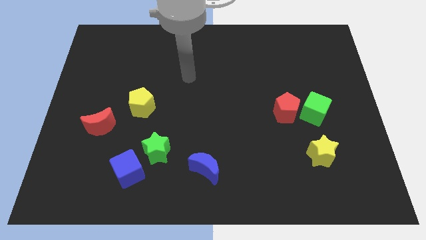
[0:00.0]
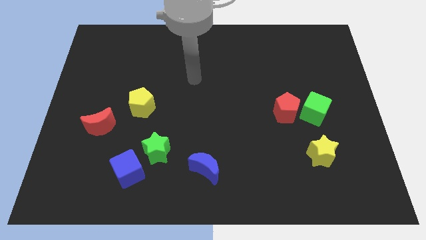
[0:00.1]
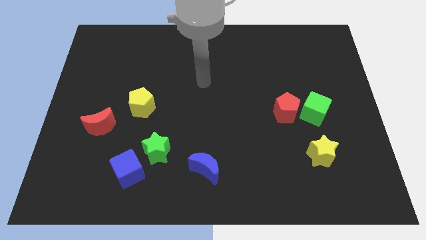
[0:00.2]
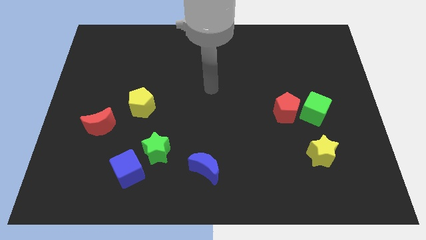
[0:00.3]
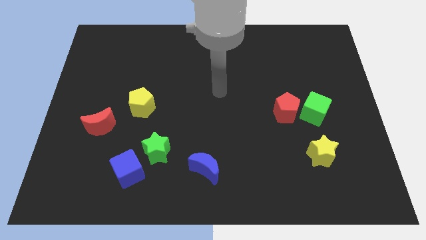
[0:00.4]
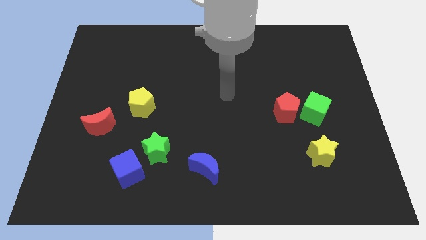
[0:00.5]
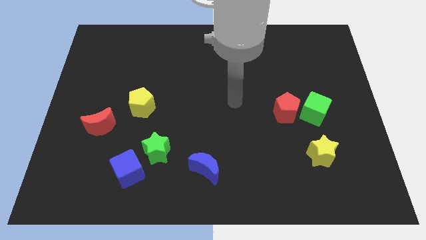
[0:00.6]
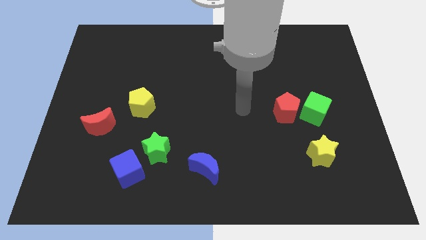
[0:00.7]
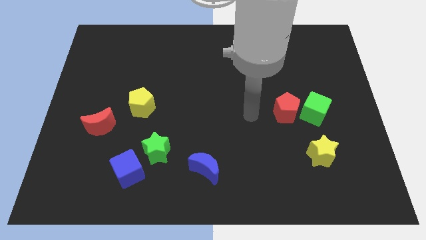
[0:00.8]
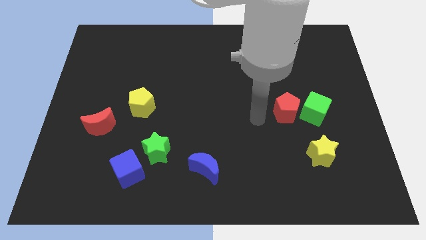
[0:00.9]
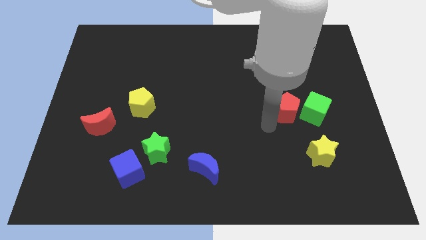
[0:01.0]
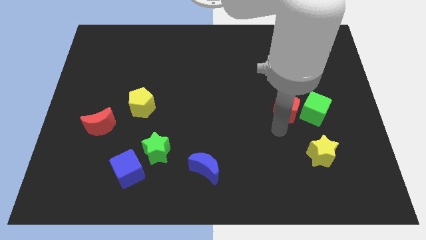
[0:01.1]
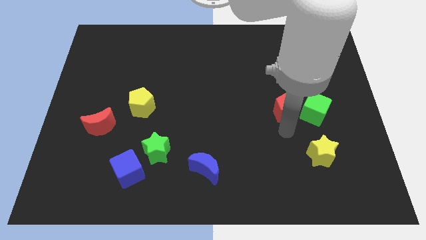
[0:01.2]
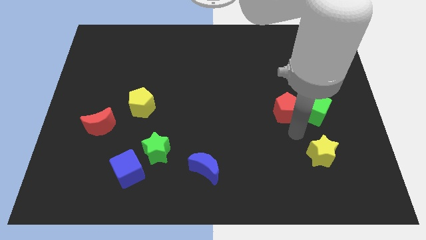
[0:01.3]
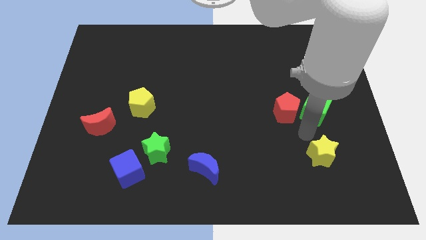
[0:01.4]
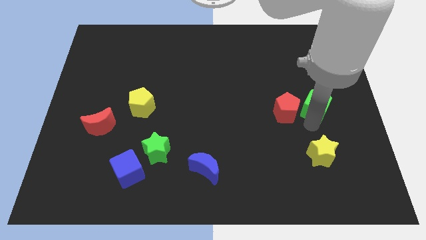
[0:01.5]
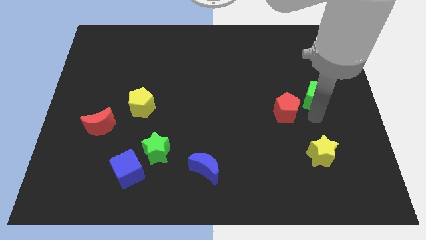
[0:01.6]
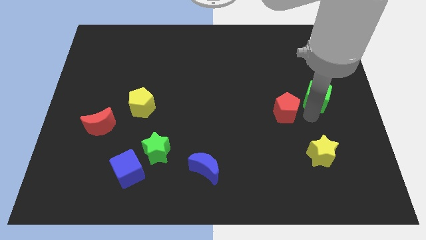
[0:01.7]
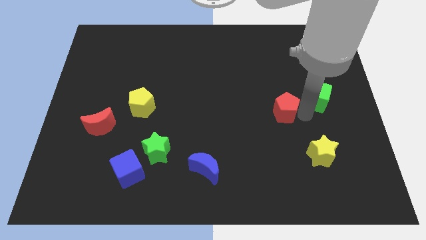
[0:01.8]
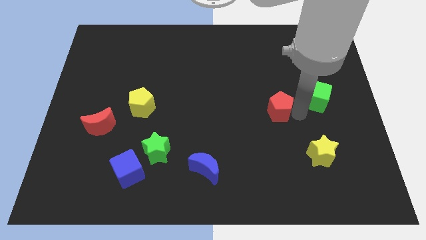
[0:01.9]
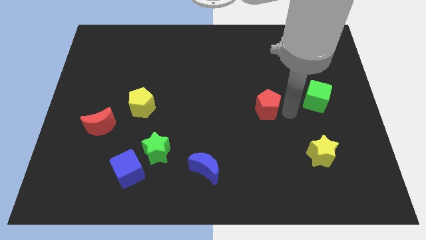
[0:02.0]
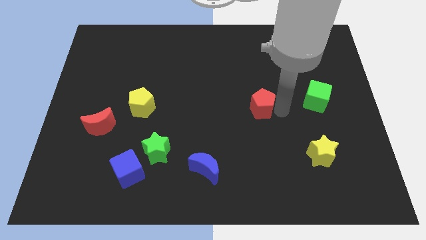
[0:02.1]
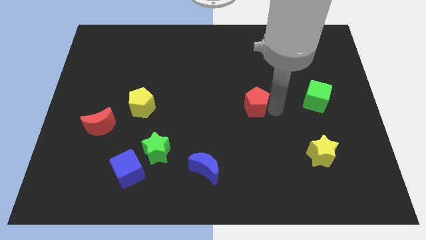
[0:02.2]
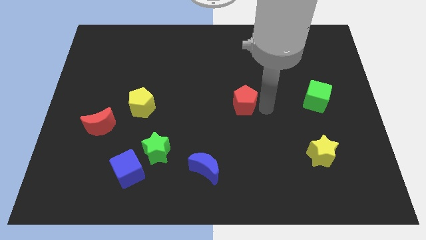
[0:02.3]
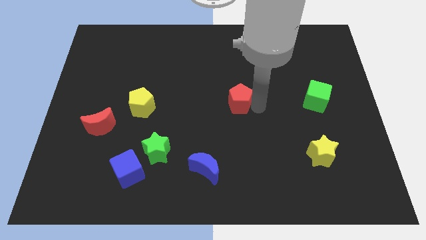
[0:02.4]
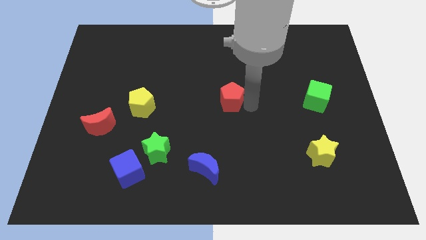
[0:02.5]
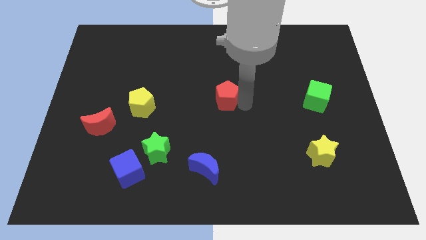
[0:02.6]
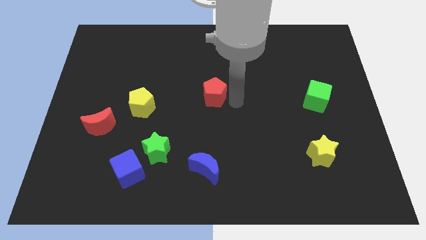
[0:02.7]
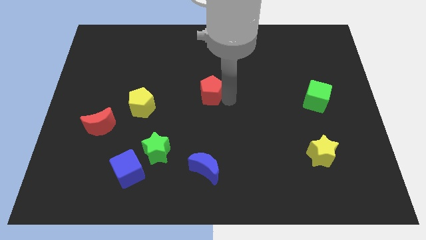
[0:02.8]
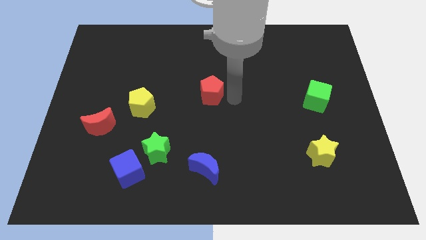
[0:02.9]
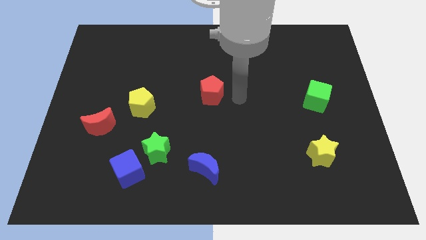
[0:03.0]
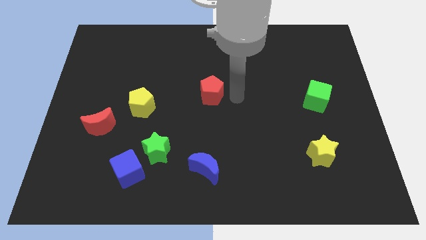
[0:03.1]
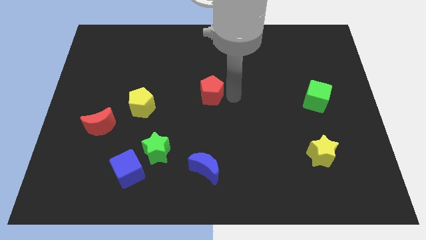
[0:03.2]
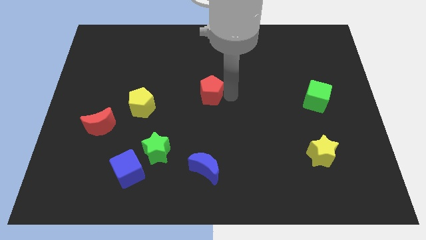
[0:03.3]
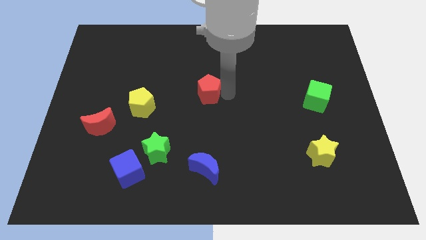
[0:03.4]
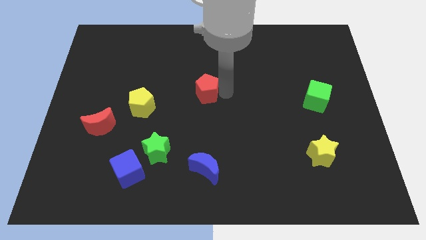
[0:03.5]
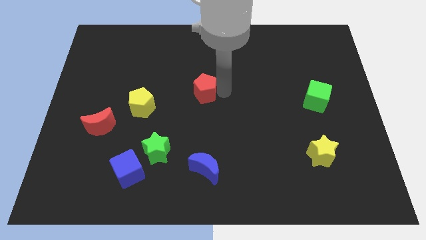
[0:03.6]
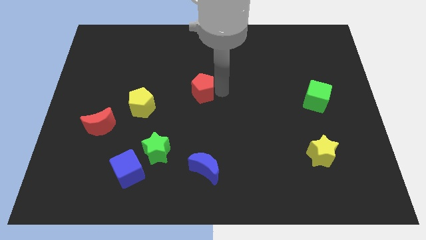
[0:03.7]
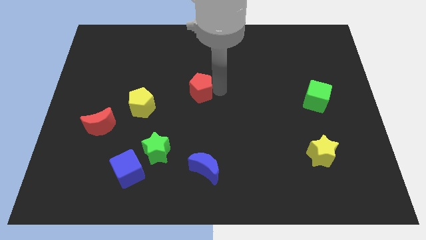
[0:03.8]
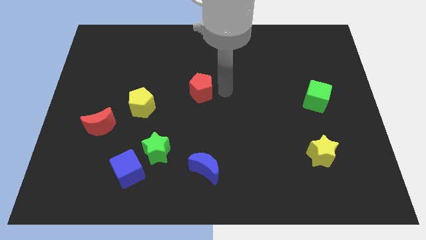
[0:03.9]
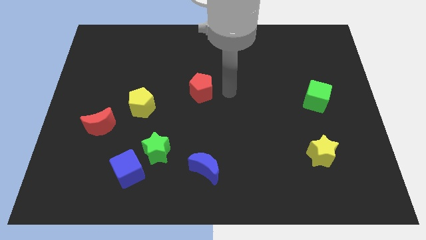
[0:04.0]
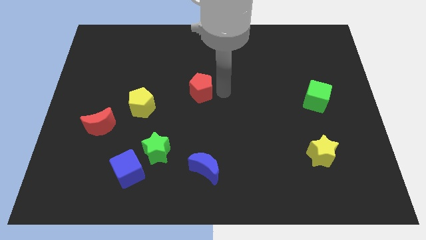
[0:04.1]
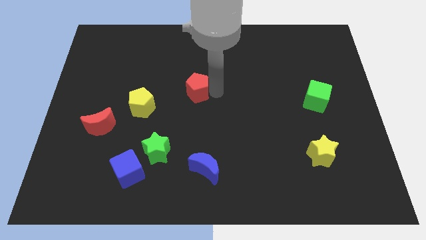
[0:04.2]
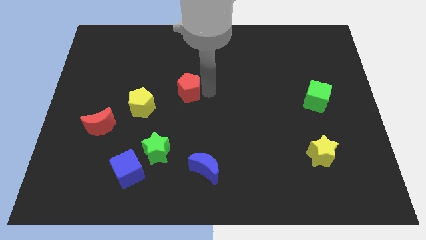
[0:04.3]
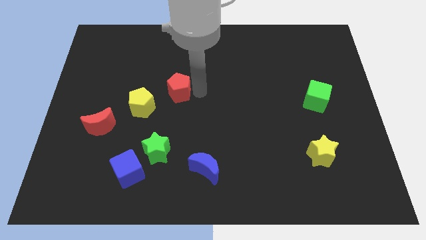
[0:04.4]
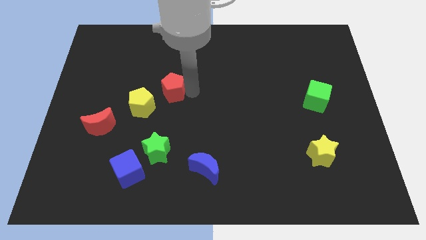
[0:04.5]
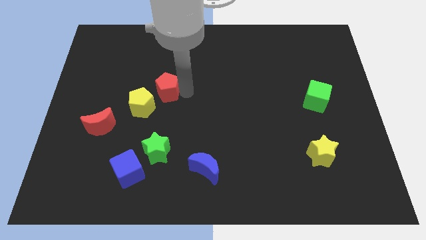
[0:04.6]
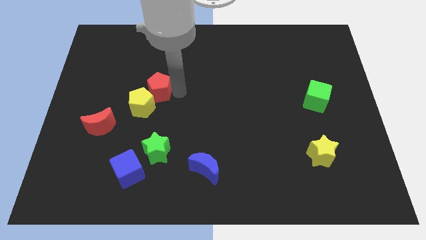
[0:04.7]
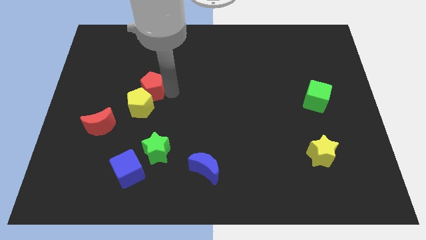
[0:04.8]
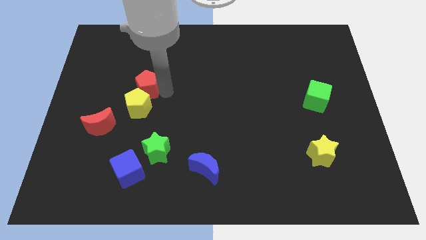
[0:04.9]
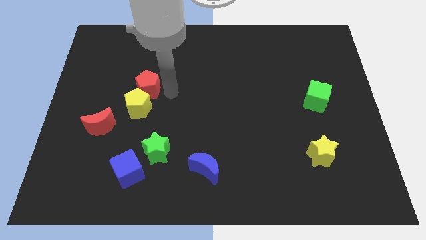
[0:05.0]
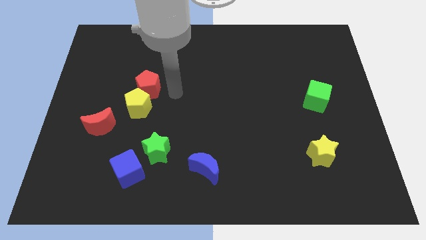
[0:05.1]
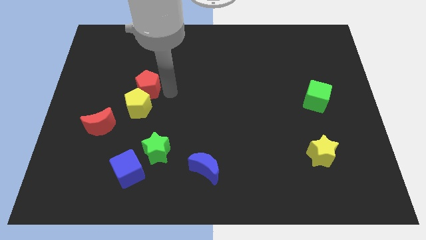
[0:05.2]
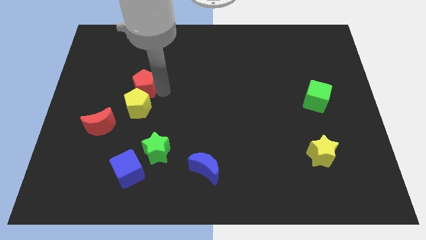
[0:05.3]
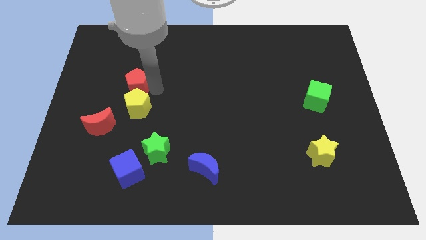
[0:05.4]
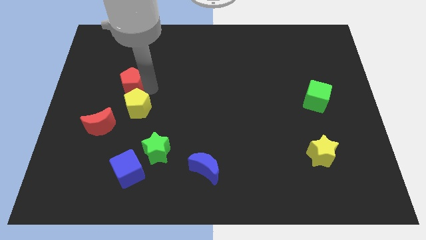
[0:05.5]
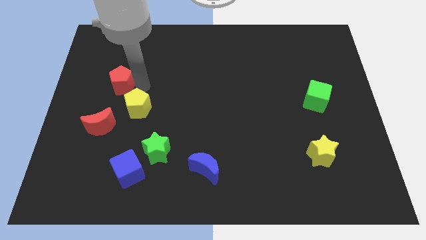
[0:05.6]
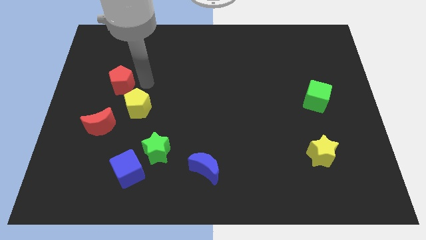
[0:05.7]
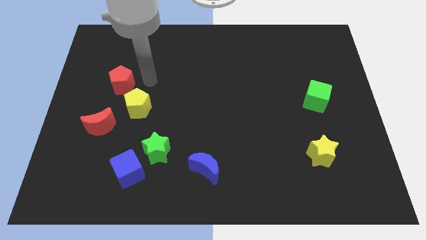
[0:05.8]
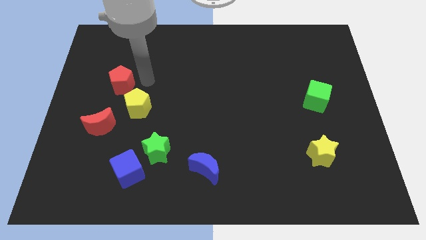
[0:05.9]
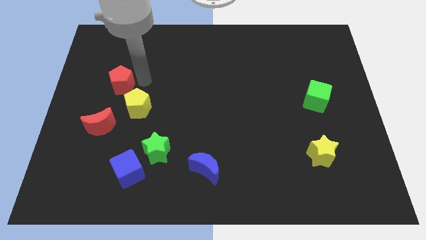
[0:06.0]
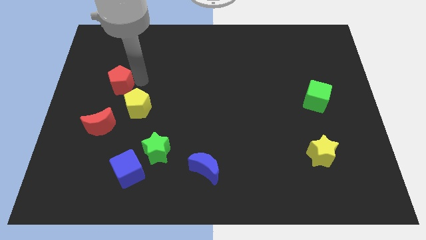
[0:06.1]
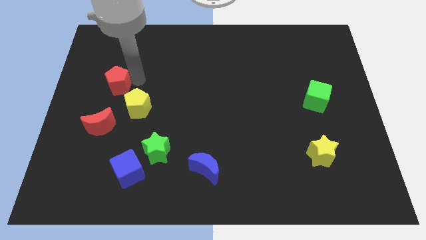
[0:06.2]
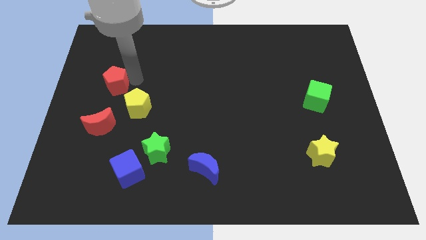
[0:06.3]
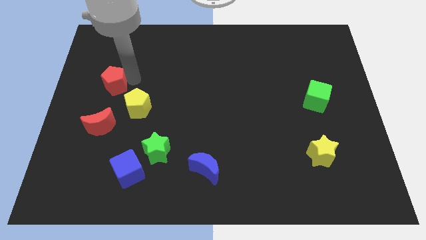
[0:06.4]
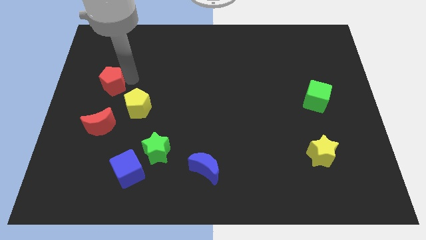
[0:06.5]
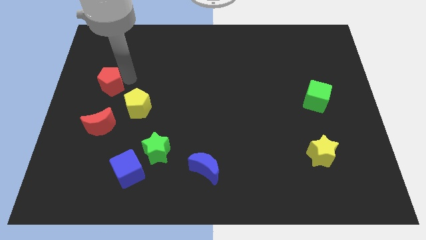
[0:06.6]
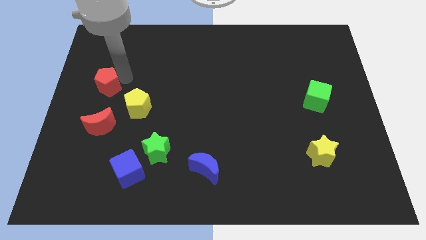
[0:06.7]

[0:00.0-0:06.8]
slide the red pentagon to the left side
